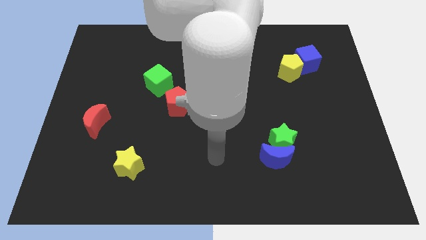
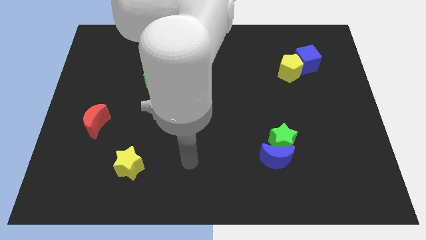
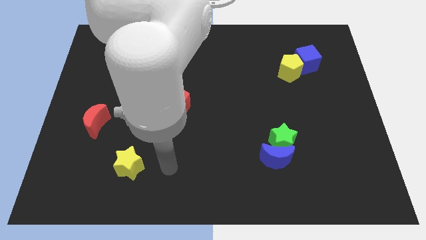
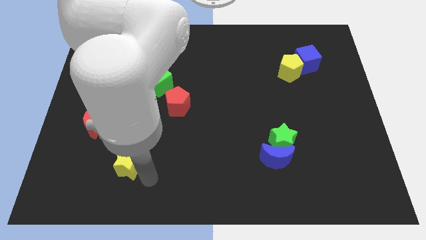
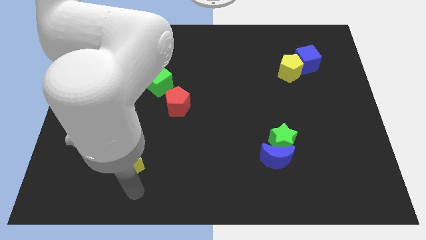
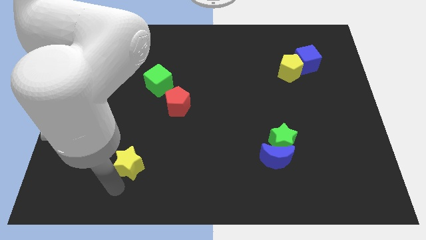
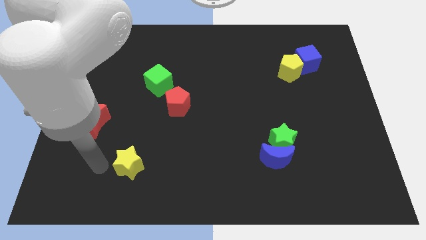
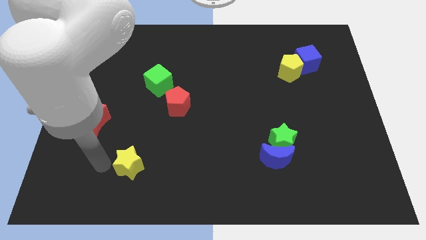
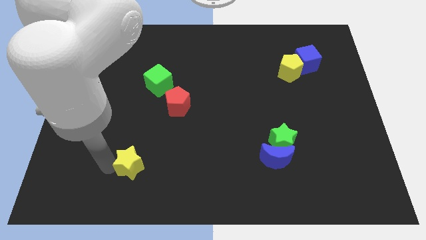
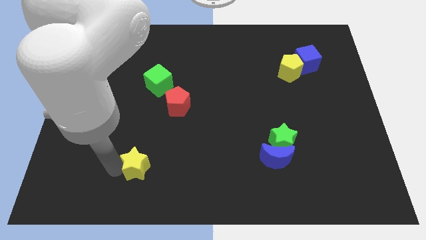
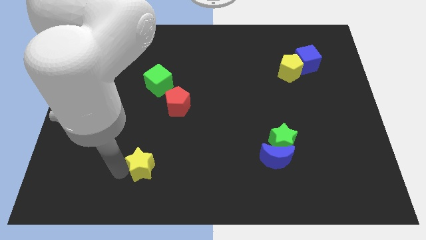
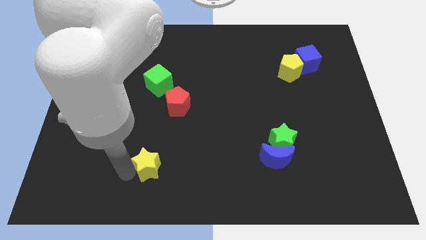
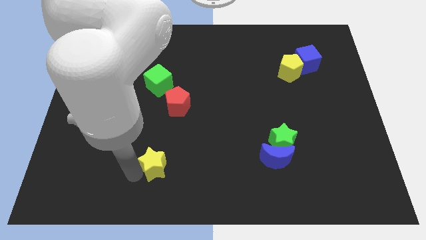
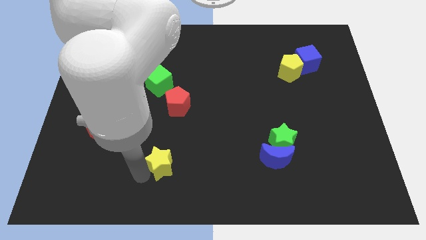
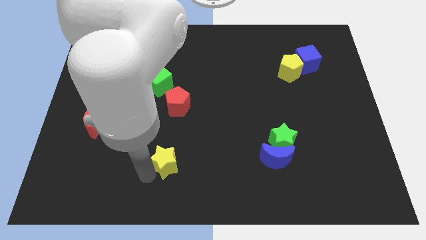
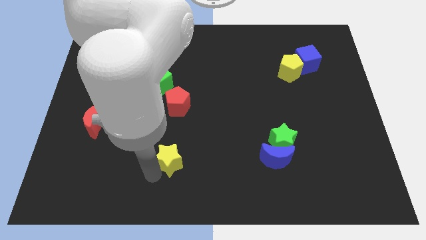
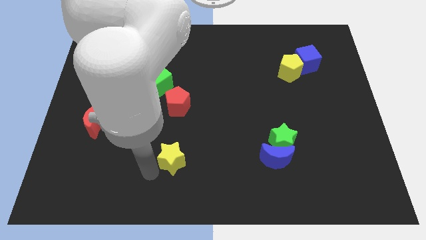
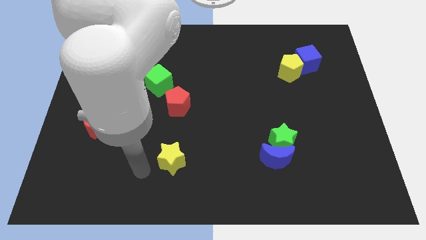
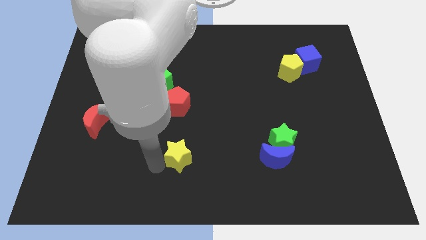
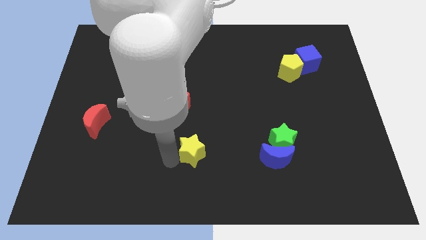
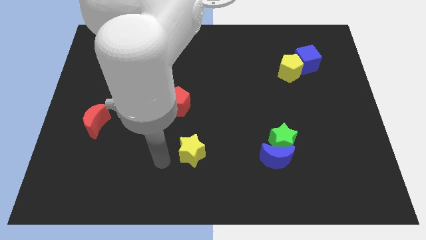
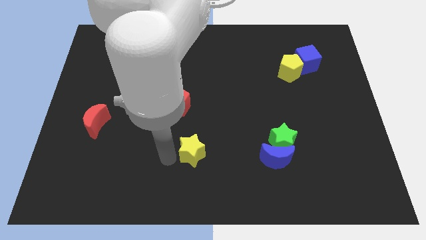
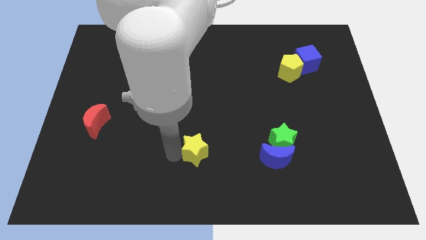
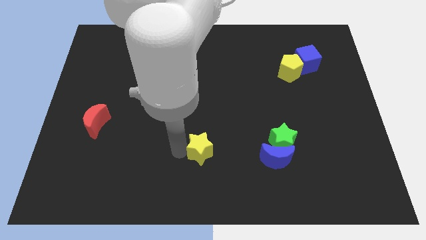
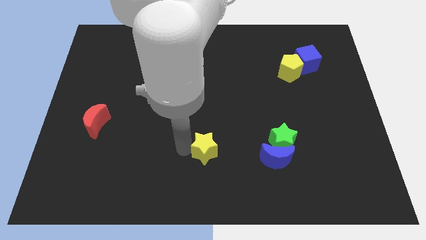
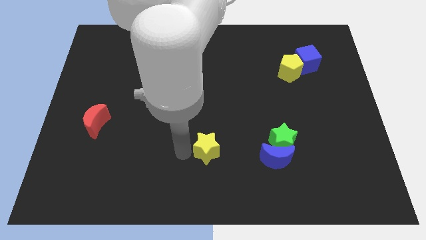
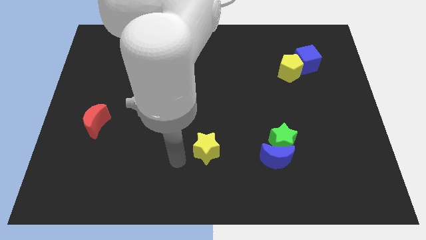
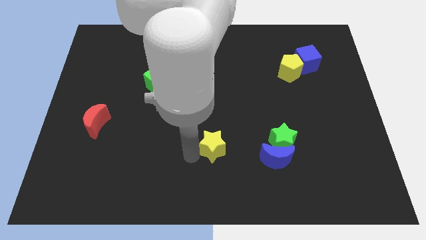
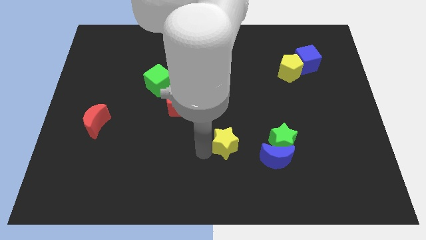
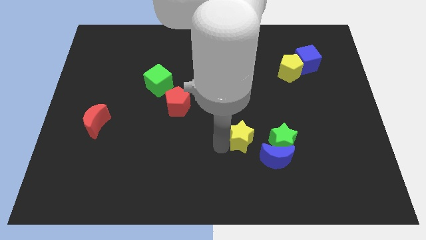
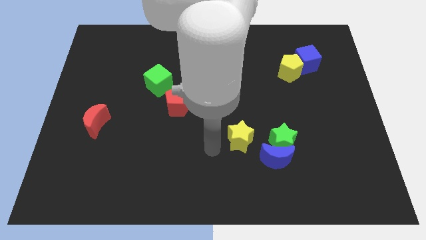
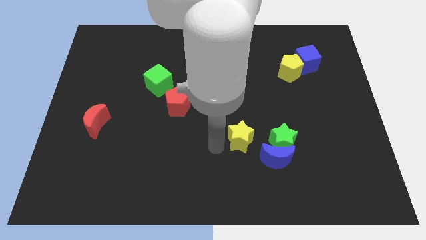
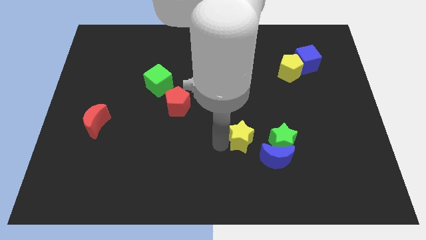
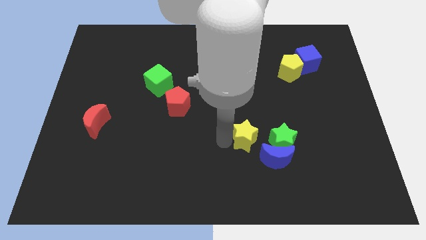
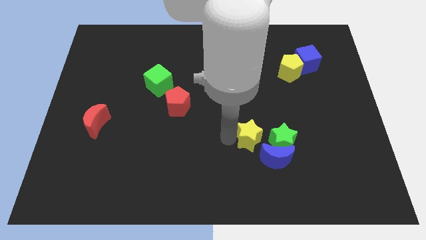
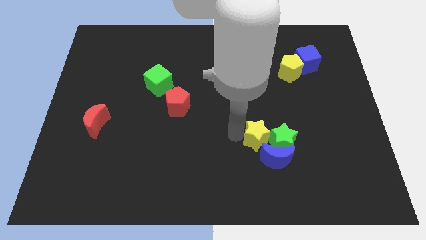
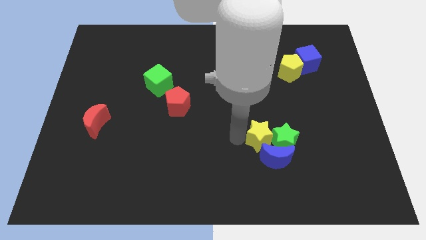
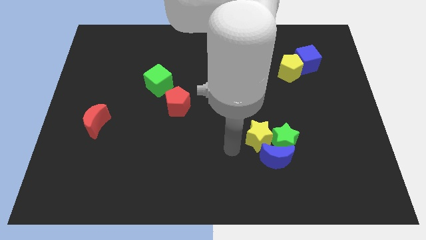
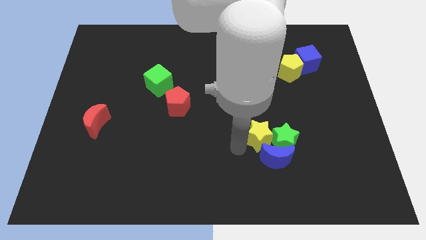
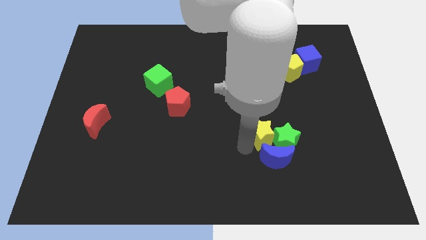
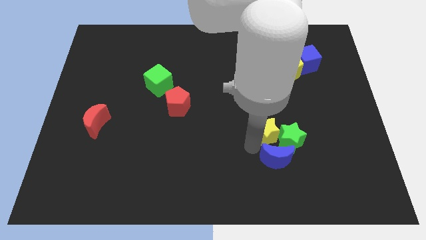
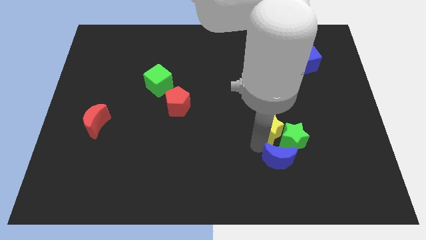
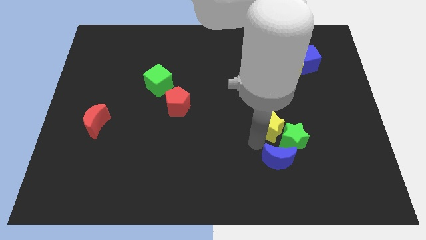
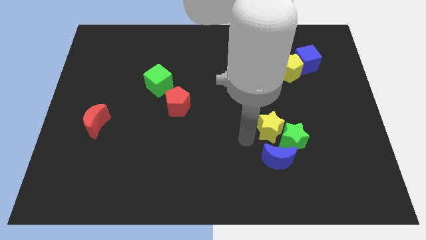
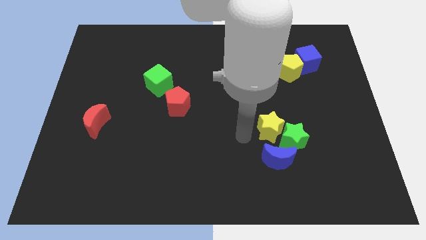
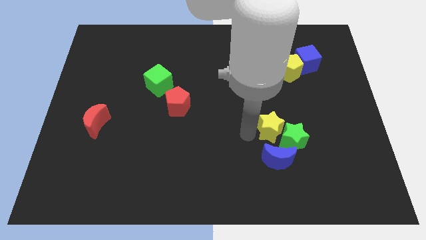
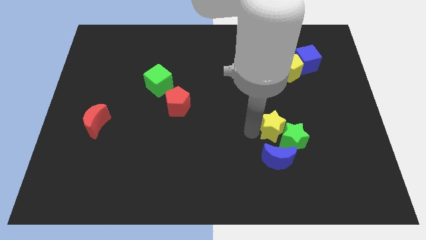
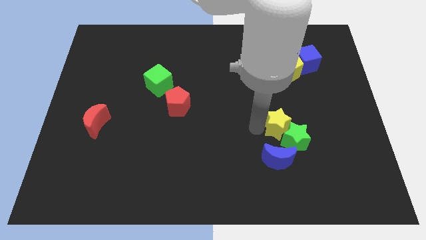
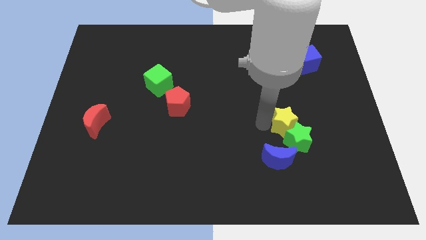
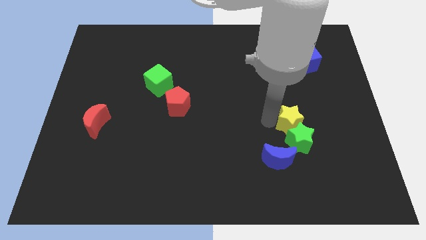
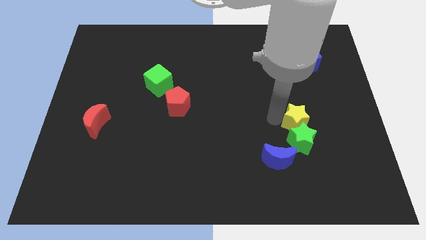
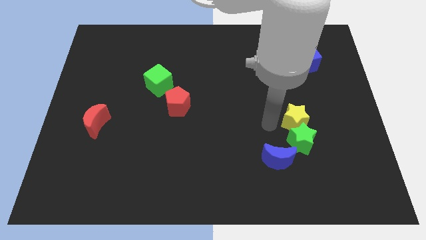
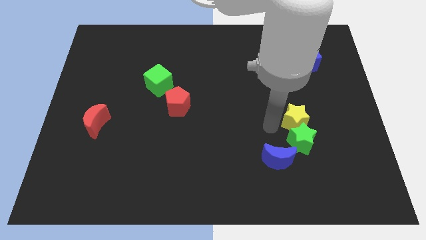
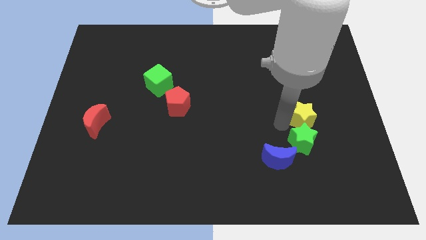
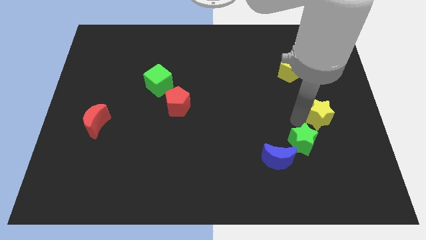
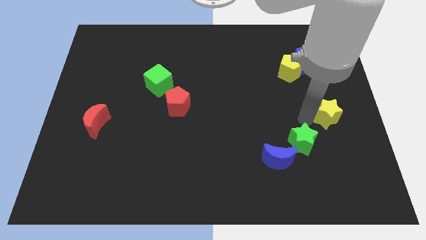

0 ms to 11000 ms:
put the yellow star to the right side

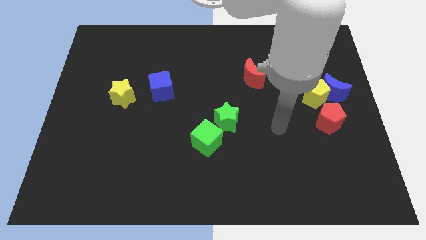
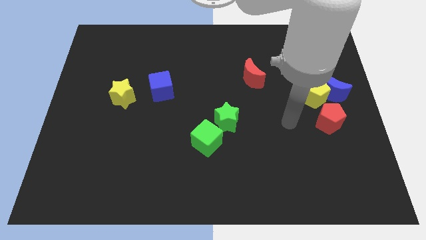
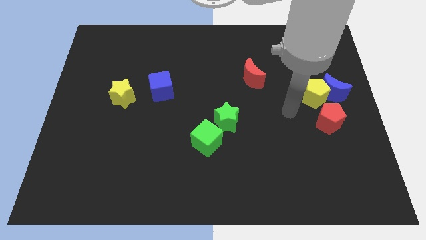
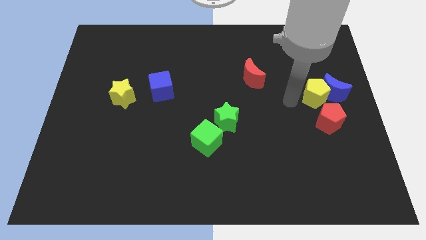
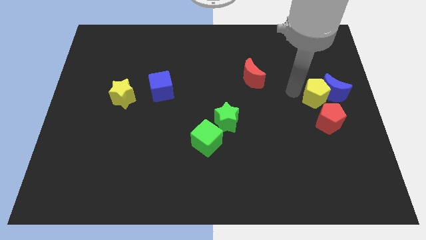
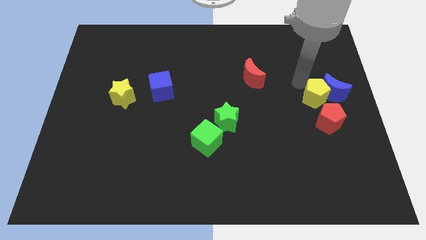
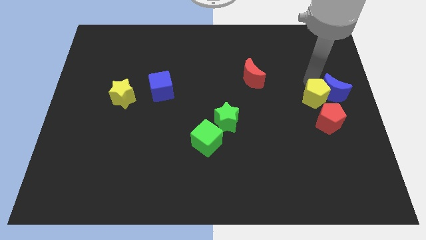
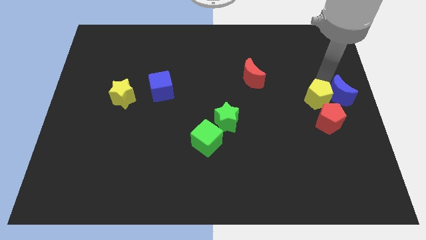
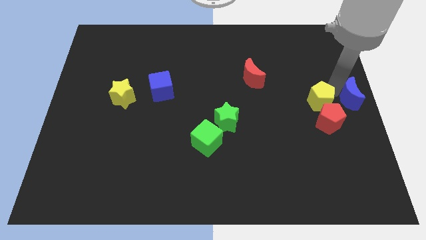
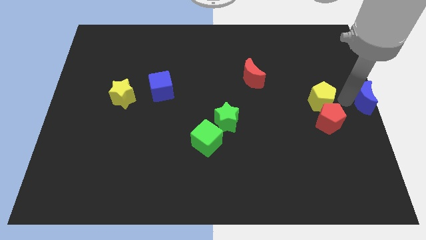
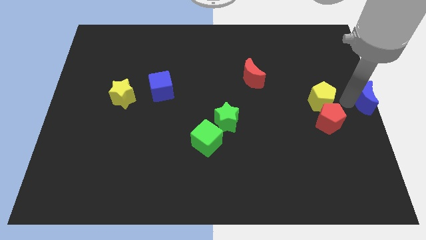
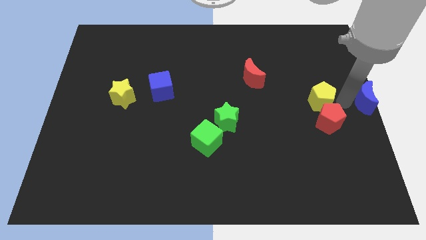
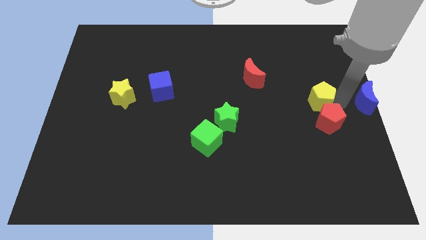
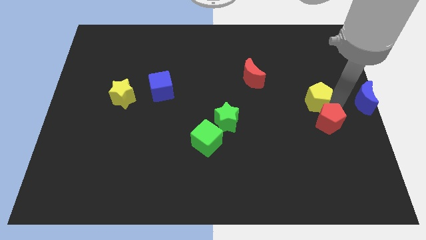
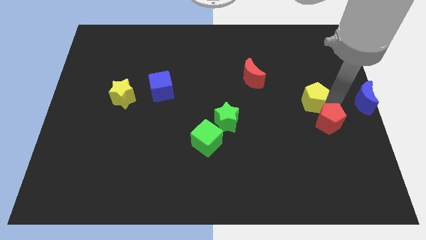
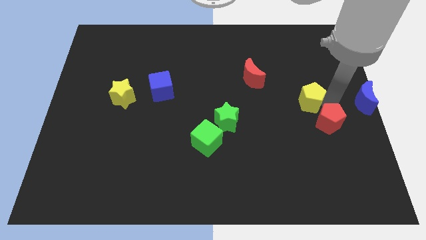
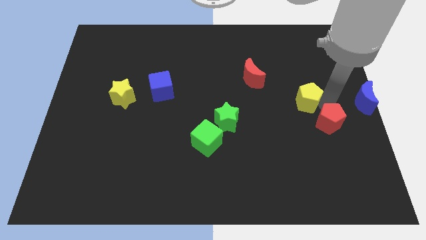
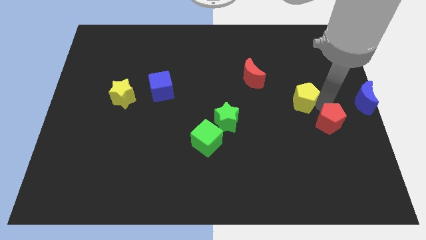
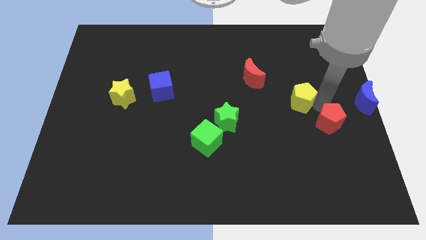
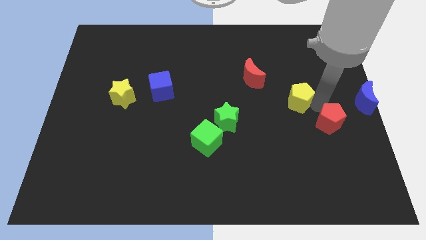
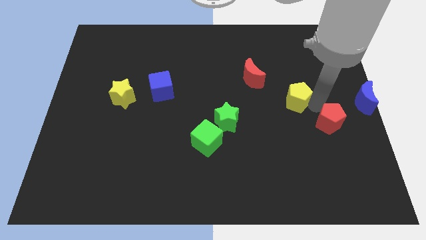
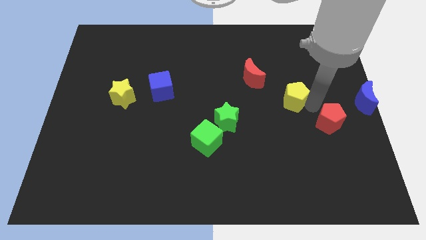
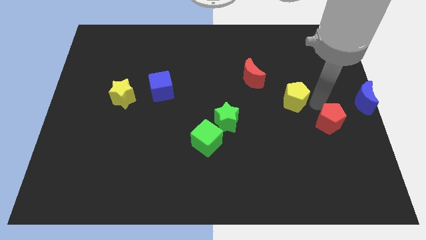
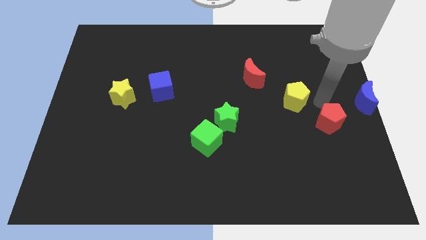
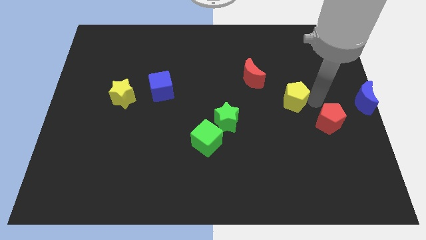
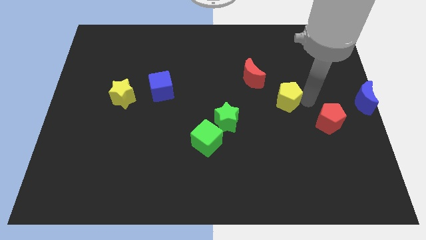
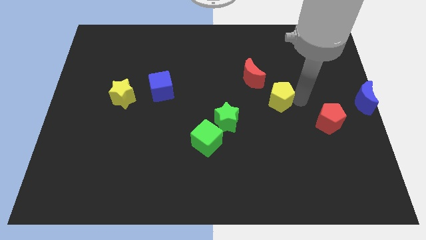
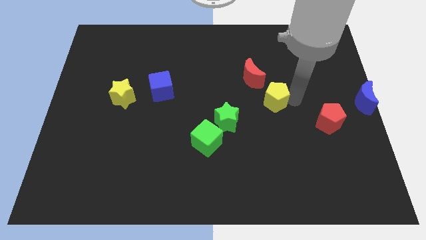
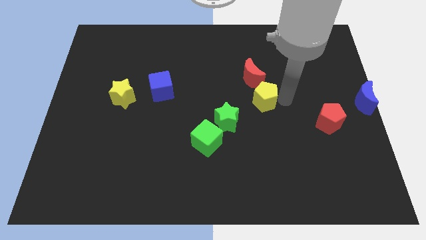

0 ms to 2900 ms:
put the yellow pentagon to the center
